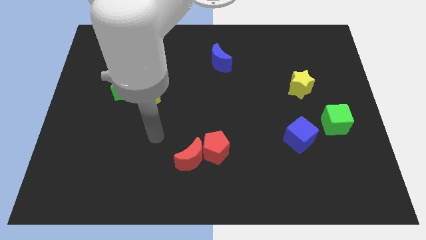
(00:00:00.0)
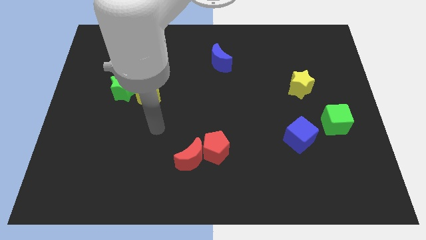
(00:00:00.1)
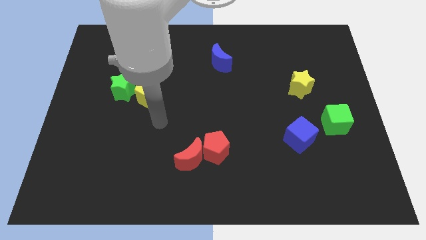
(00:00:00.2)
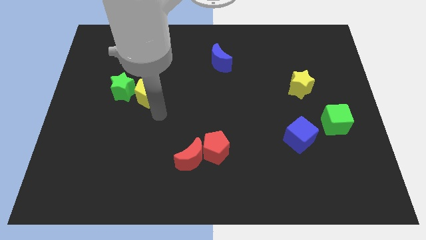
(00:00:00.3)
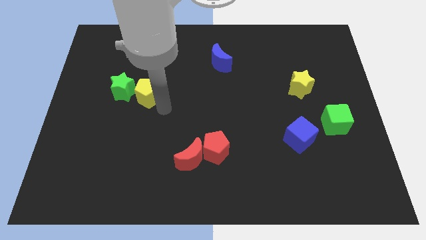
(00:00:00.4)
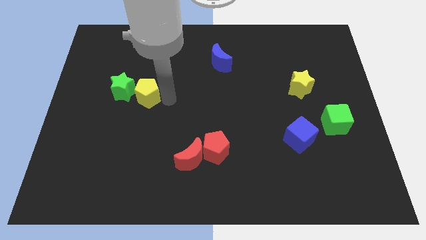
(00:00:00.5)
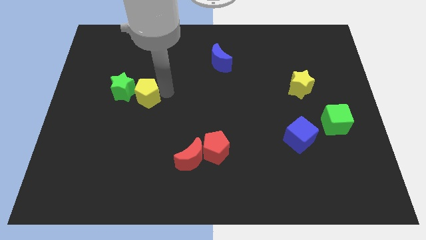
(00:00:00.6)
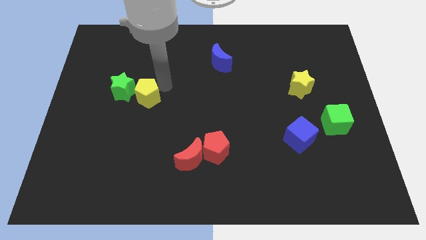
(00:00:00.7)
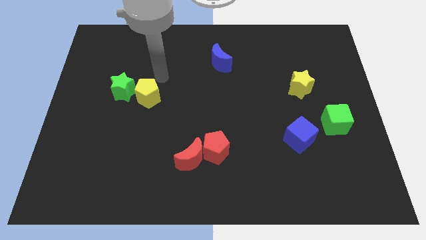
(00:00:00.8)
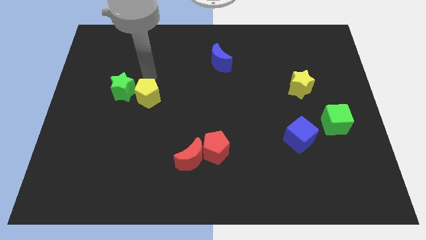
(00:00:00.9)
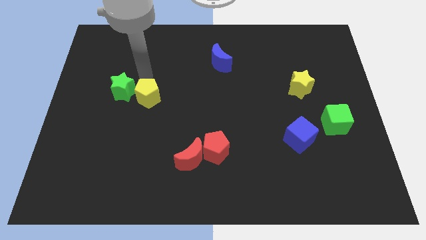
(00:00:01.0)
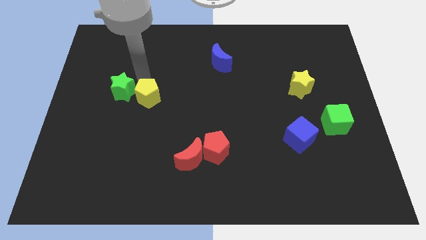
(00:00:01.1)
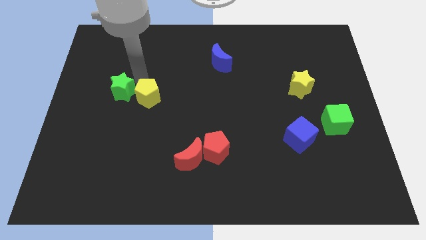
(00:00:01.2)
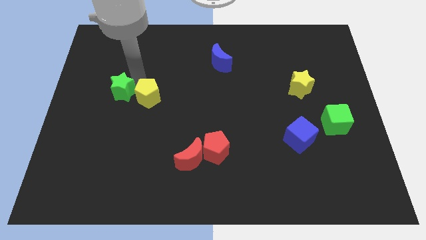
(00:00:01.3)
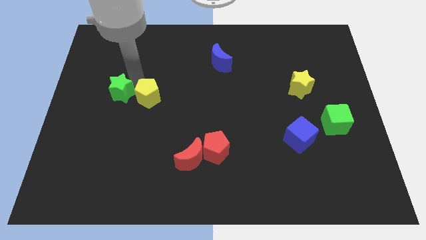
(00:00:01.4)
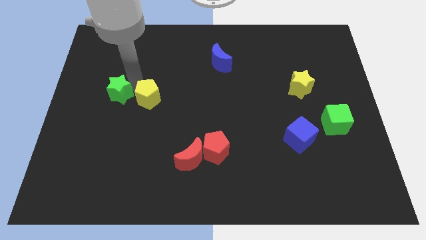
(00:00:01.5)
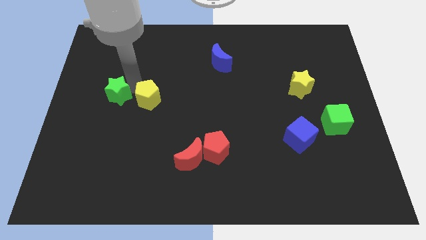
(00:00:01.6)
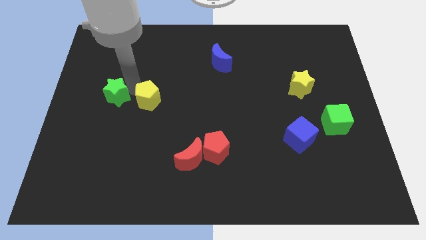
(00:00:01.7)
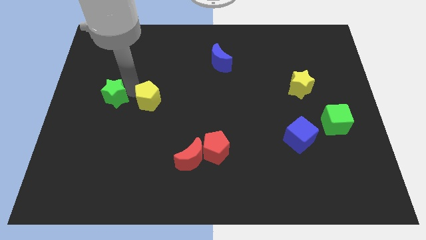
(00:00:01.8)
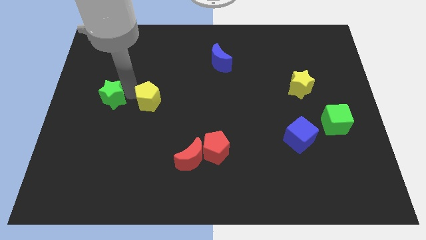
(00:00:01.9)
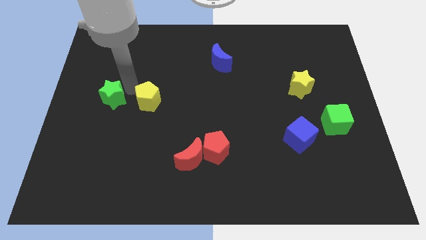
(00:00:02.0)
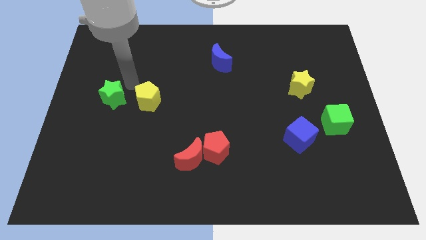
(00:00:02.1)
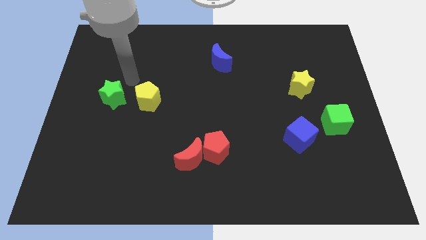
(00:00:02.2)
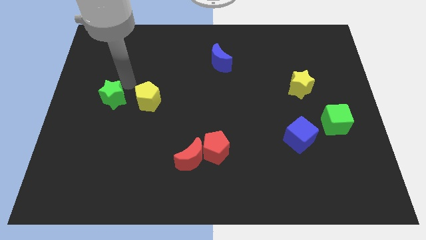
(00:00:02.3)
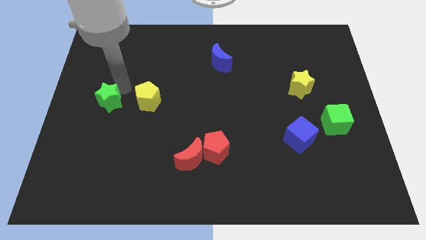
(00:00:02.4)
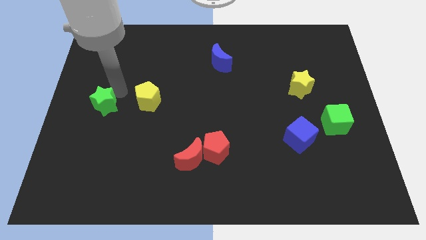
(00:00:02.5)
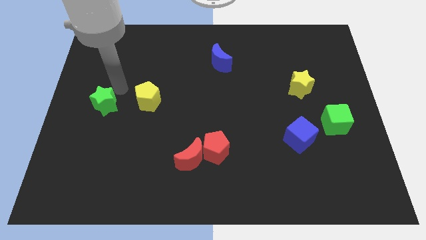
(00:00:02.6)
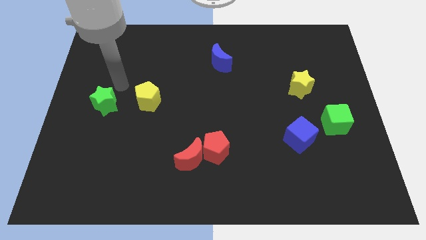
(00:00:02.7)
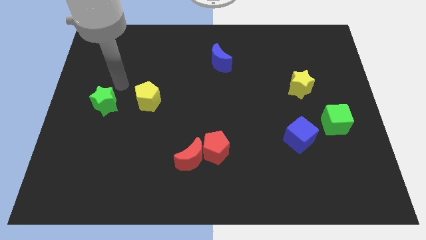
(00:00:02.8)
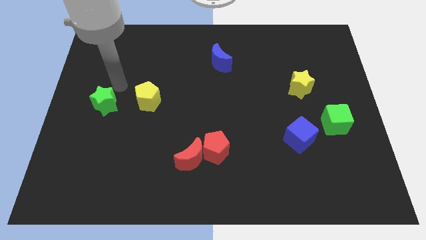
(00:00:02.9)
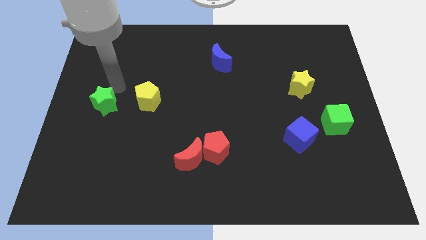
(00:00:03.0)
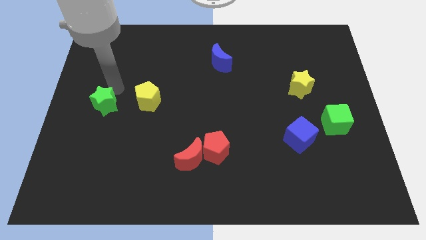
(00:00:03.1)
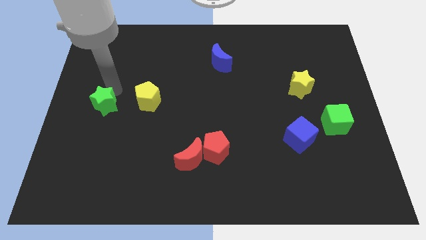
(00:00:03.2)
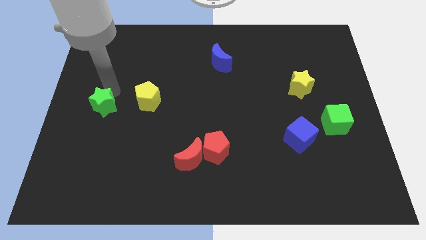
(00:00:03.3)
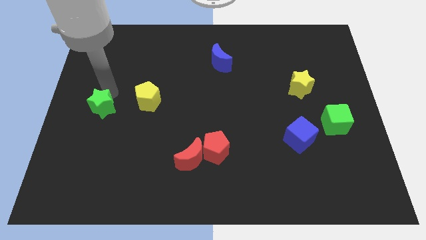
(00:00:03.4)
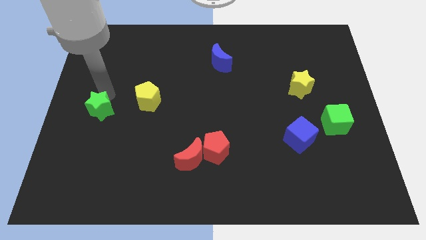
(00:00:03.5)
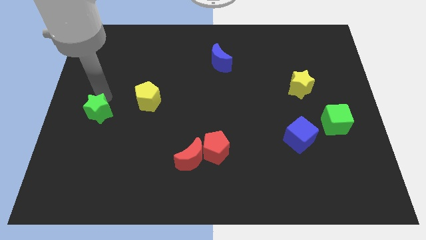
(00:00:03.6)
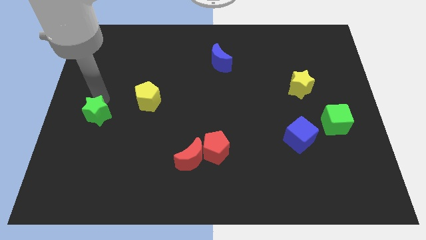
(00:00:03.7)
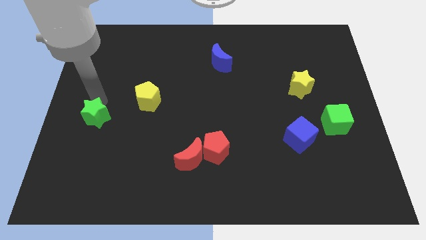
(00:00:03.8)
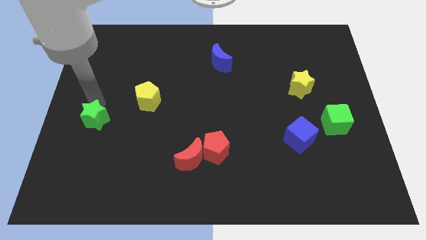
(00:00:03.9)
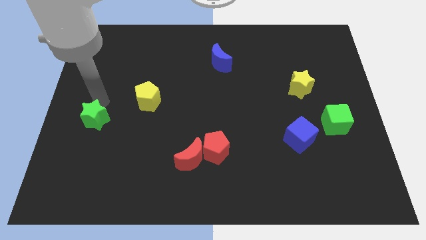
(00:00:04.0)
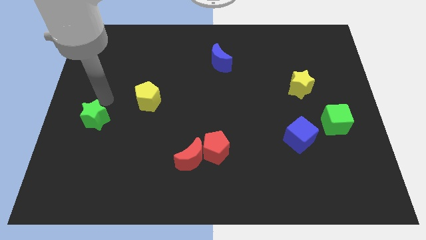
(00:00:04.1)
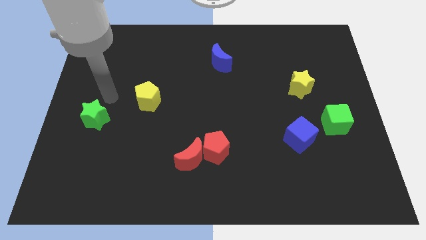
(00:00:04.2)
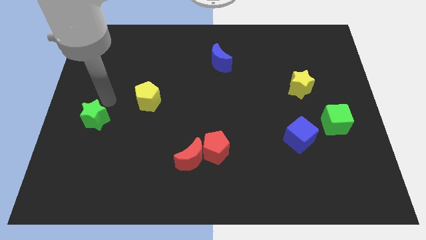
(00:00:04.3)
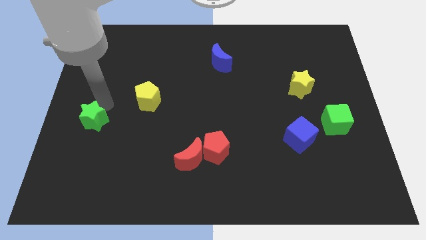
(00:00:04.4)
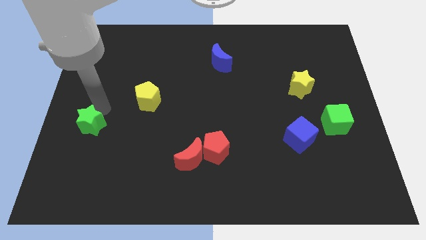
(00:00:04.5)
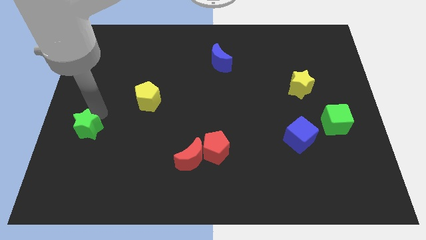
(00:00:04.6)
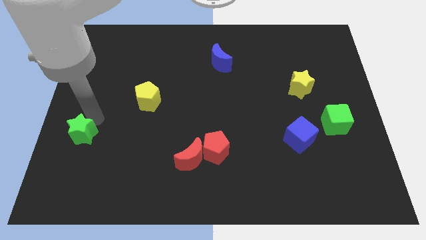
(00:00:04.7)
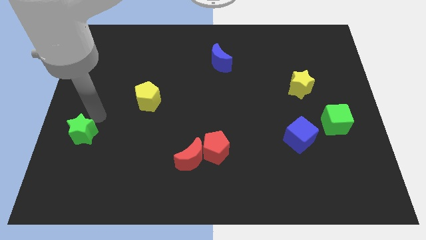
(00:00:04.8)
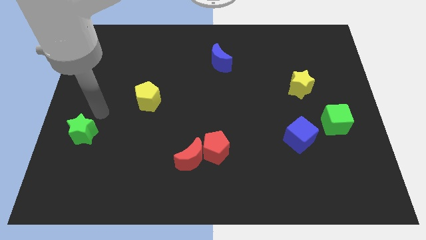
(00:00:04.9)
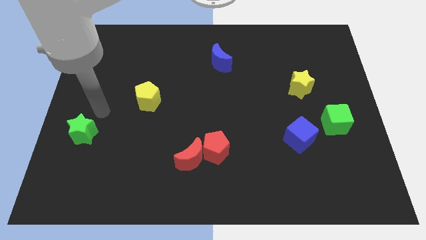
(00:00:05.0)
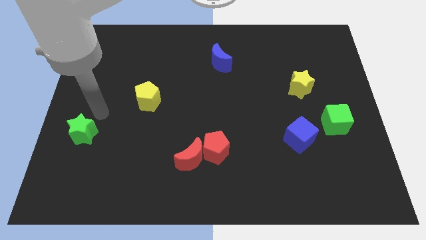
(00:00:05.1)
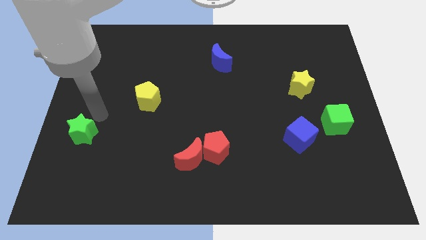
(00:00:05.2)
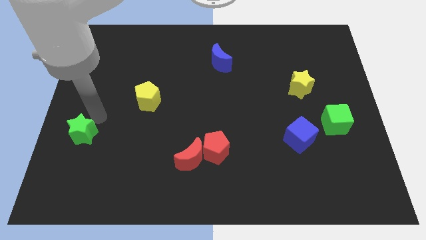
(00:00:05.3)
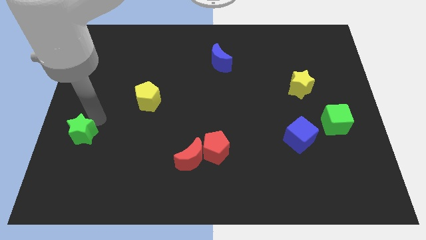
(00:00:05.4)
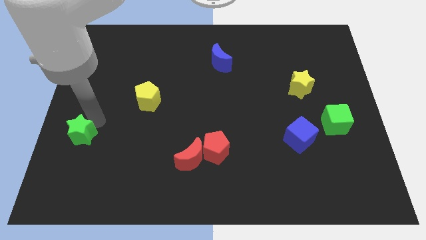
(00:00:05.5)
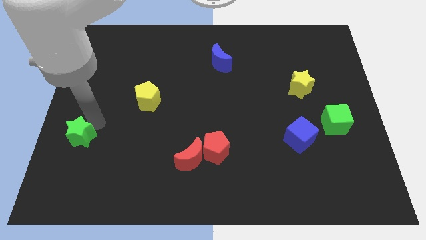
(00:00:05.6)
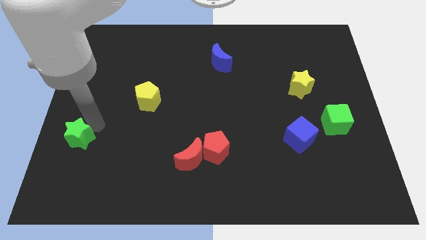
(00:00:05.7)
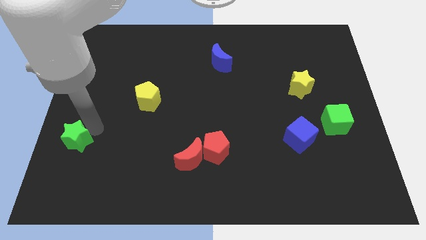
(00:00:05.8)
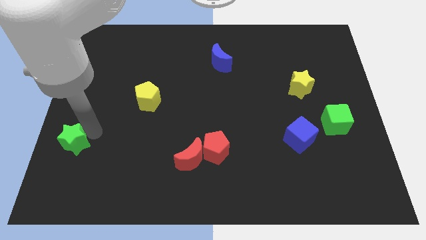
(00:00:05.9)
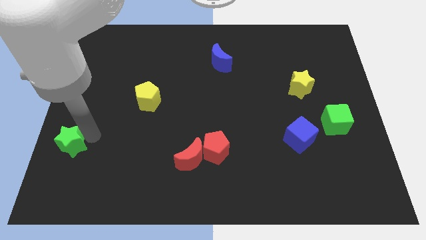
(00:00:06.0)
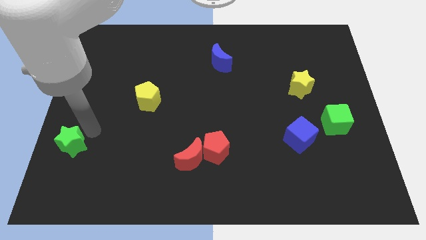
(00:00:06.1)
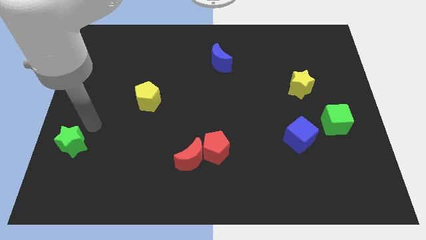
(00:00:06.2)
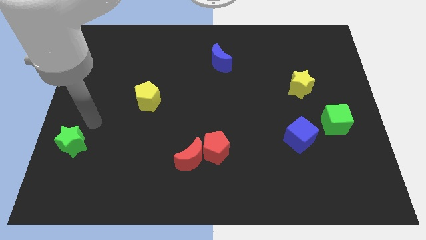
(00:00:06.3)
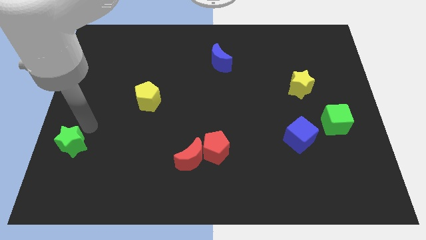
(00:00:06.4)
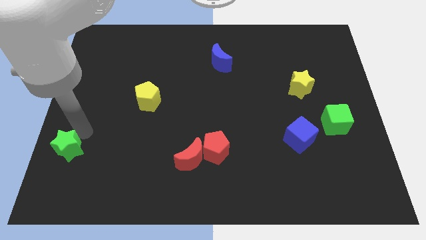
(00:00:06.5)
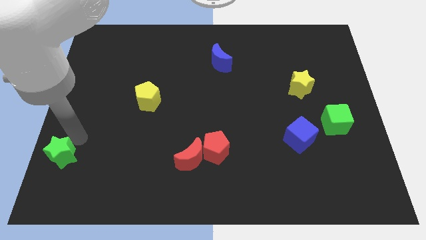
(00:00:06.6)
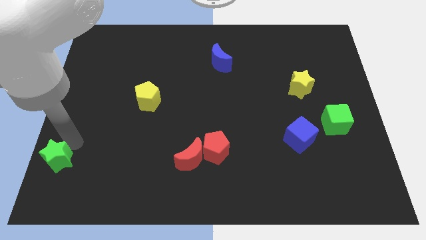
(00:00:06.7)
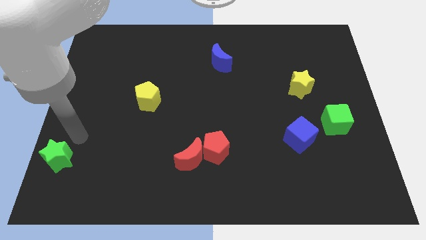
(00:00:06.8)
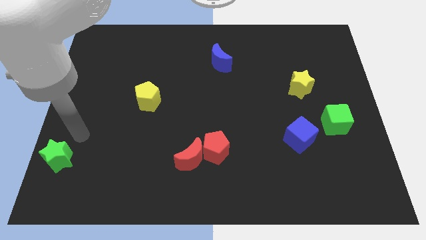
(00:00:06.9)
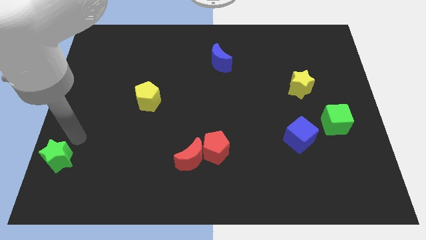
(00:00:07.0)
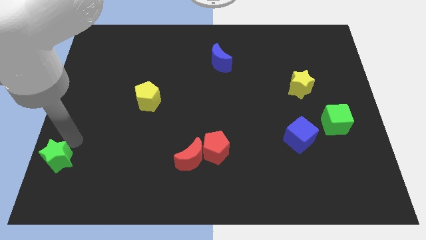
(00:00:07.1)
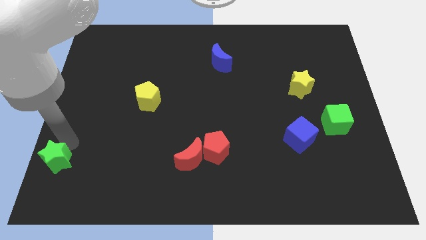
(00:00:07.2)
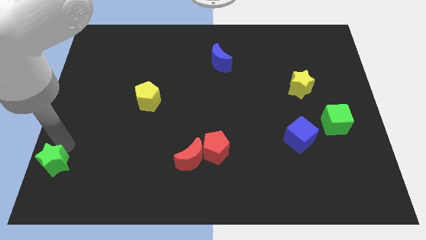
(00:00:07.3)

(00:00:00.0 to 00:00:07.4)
slide the green star to the lower left corner
